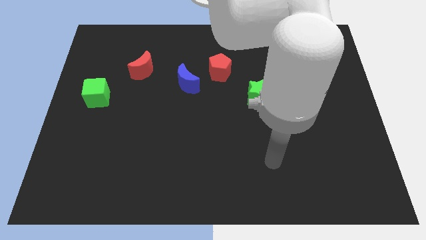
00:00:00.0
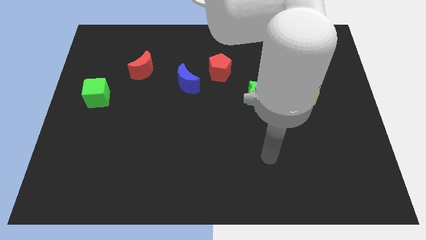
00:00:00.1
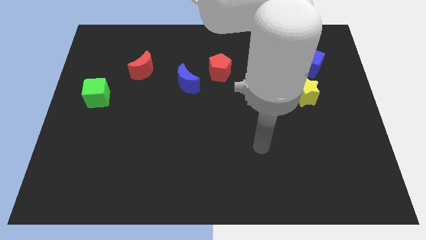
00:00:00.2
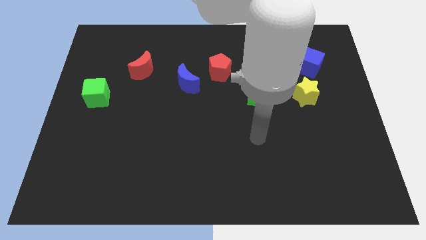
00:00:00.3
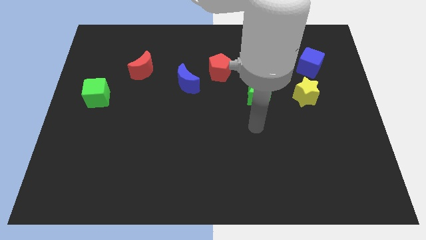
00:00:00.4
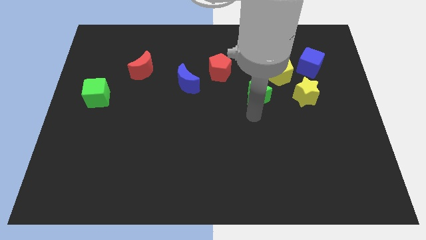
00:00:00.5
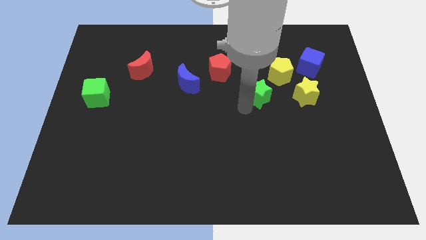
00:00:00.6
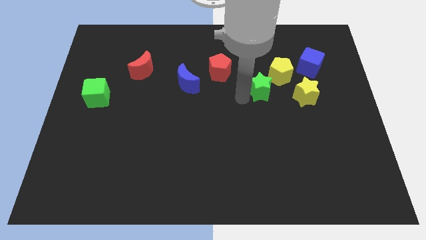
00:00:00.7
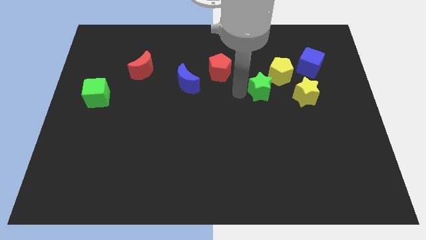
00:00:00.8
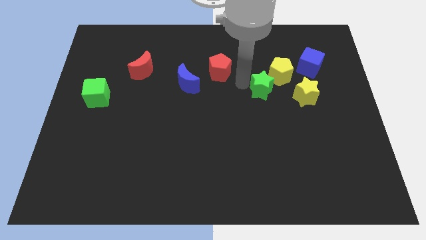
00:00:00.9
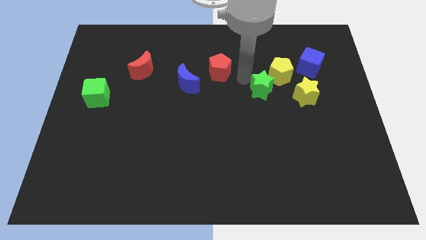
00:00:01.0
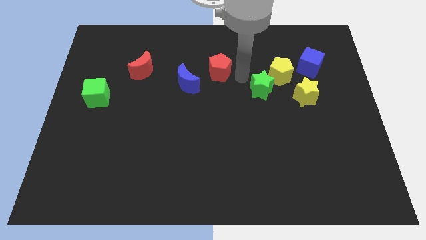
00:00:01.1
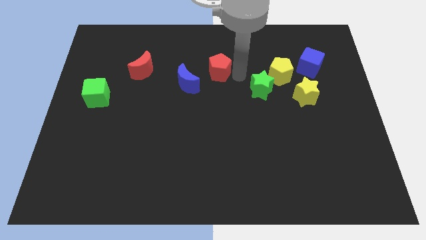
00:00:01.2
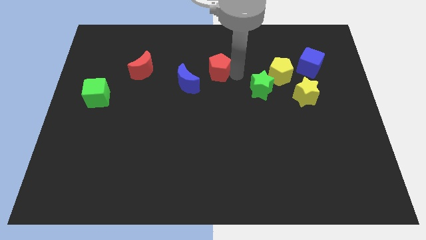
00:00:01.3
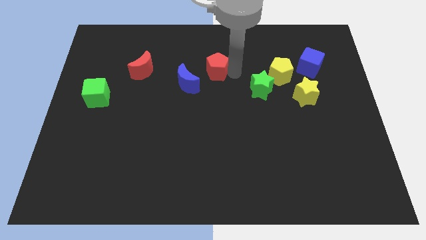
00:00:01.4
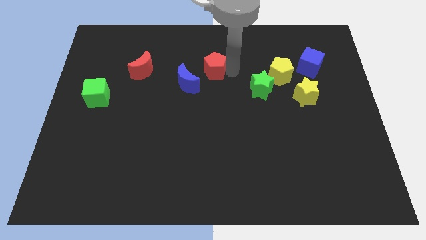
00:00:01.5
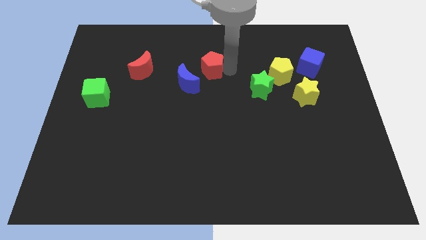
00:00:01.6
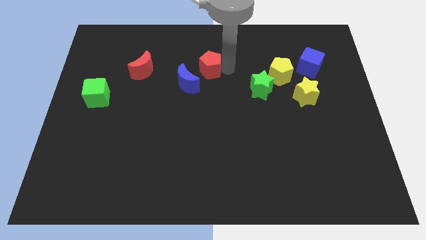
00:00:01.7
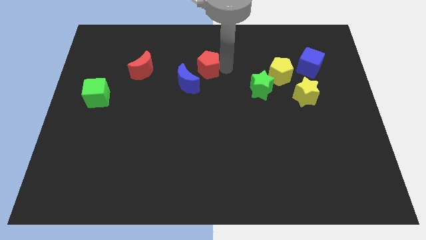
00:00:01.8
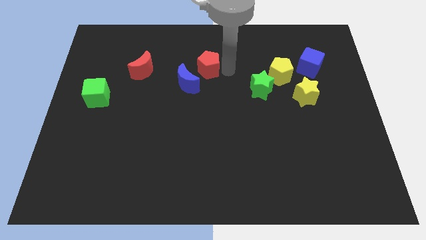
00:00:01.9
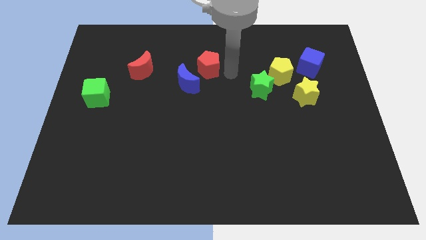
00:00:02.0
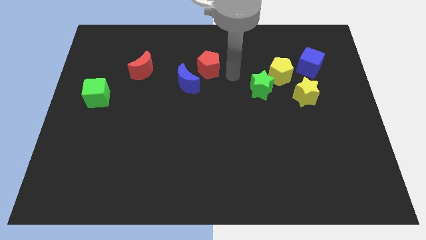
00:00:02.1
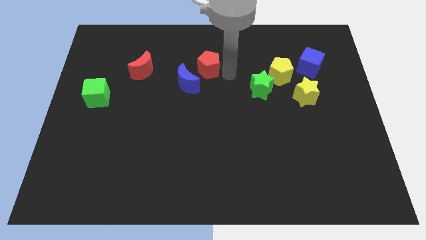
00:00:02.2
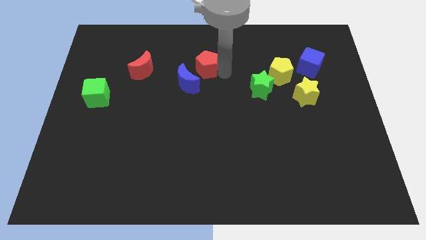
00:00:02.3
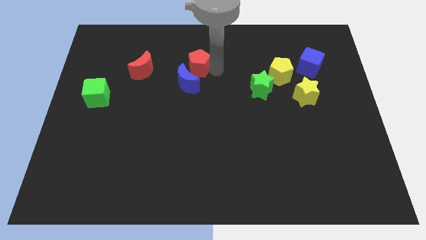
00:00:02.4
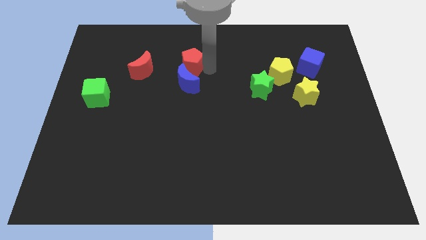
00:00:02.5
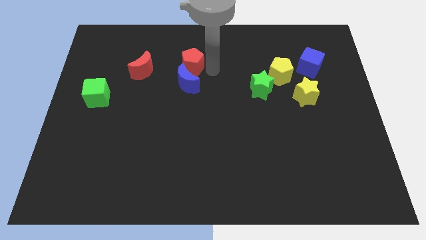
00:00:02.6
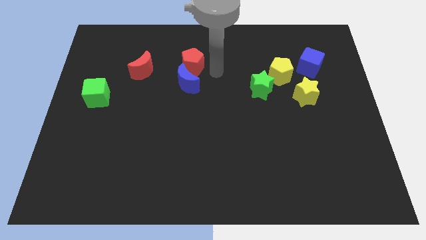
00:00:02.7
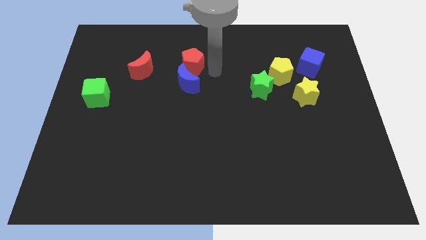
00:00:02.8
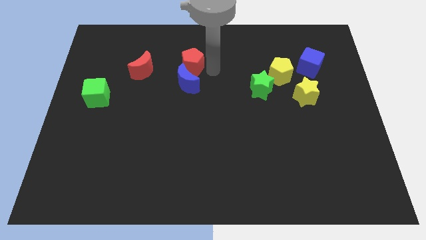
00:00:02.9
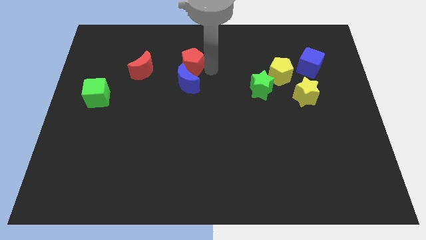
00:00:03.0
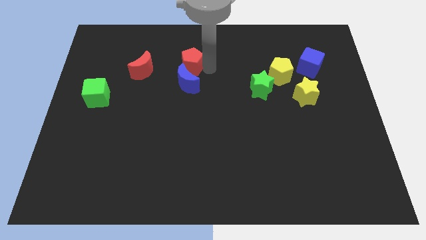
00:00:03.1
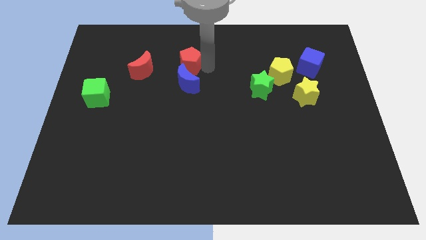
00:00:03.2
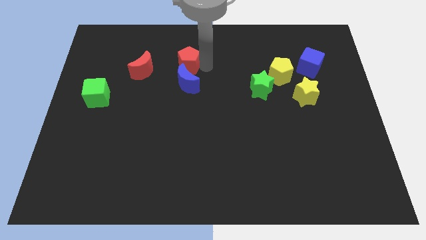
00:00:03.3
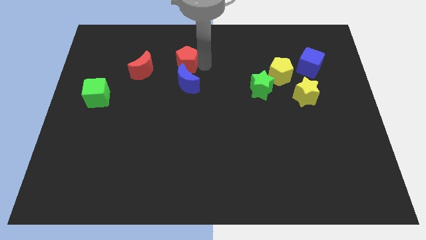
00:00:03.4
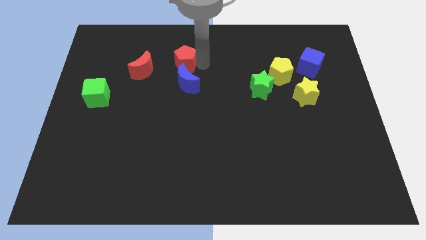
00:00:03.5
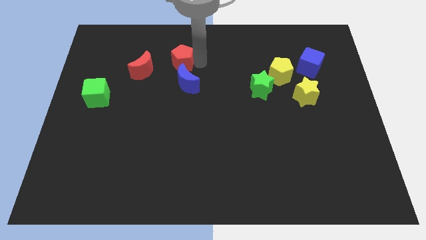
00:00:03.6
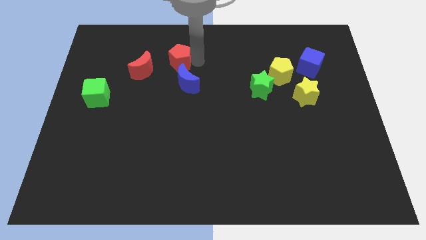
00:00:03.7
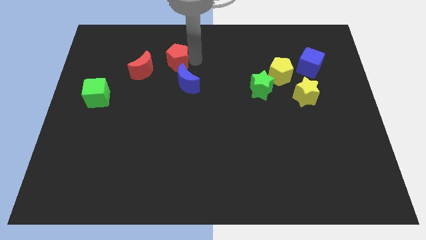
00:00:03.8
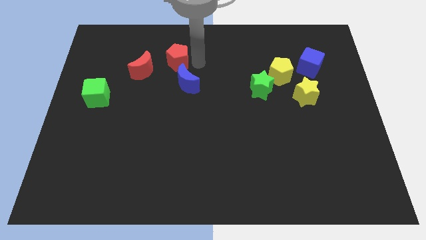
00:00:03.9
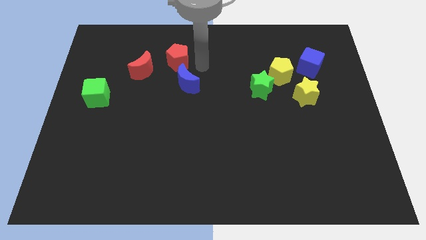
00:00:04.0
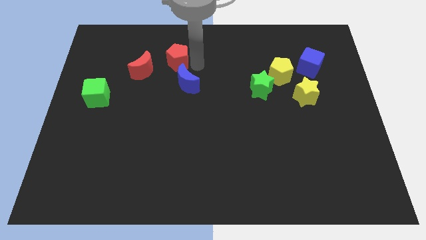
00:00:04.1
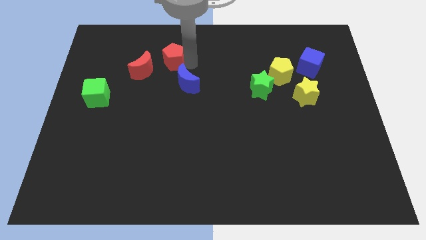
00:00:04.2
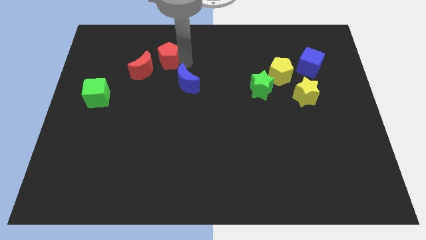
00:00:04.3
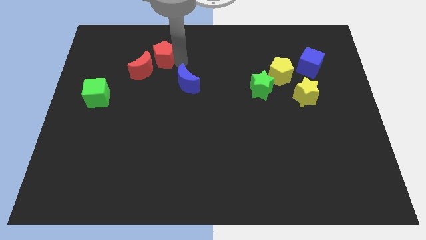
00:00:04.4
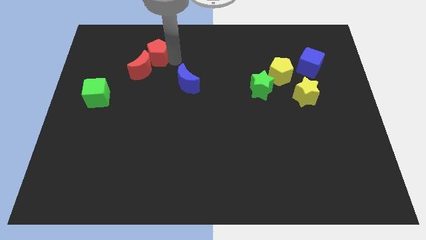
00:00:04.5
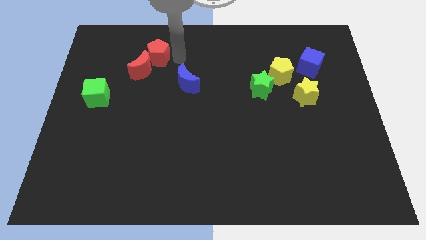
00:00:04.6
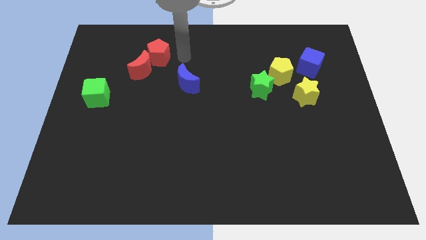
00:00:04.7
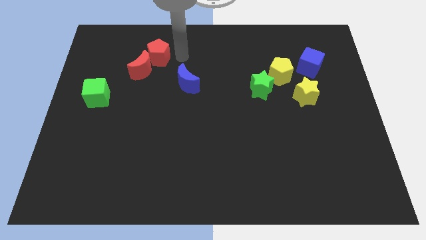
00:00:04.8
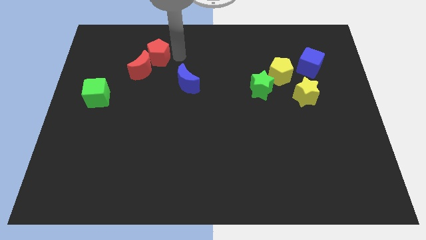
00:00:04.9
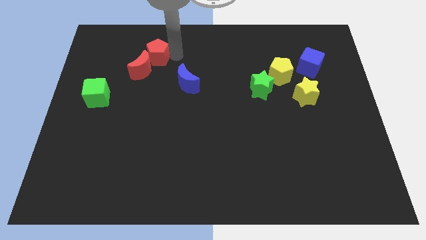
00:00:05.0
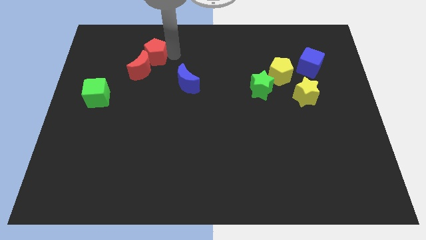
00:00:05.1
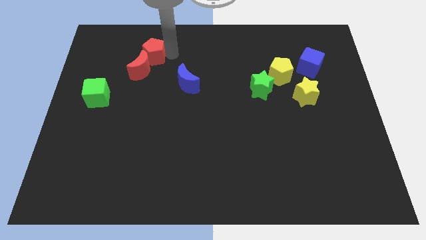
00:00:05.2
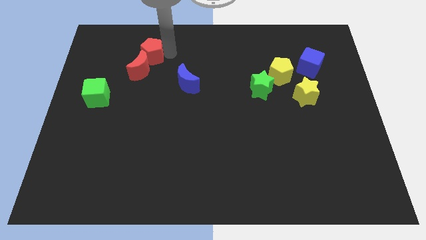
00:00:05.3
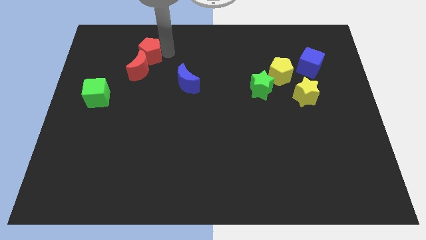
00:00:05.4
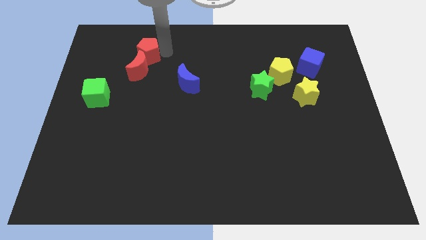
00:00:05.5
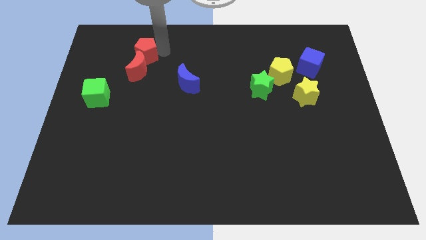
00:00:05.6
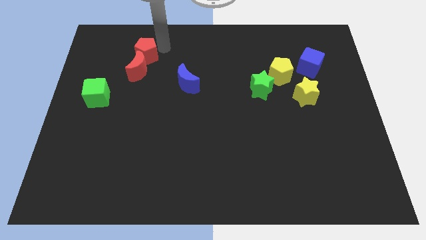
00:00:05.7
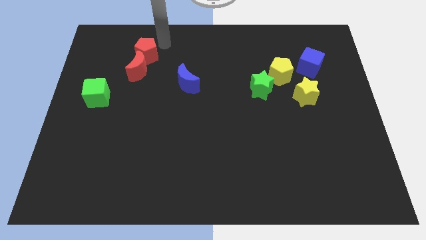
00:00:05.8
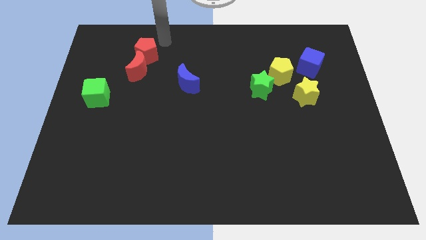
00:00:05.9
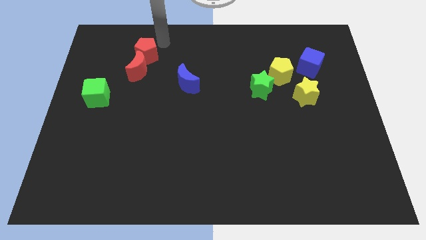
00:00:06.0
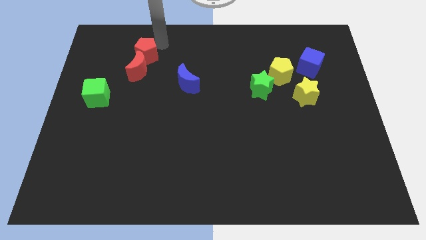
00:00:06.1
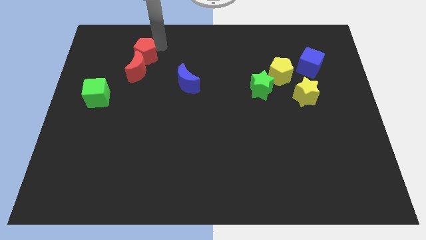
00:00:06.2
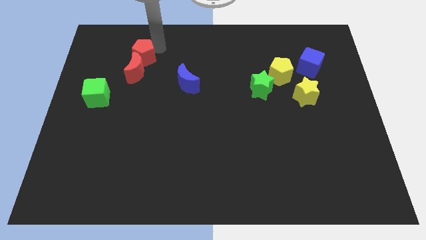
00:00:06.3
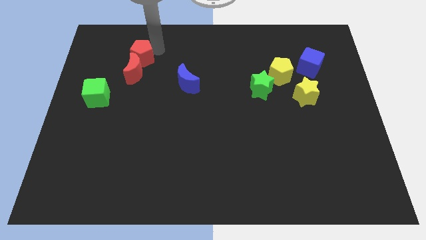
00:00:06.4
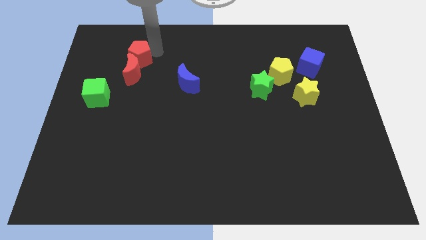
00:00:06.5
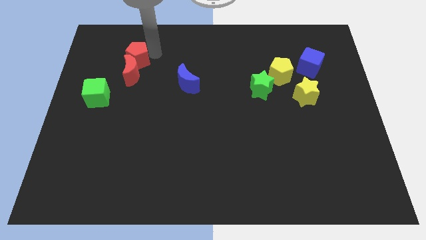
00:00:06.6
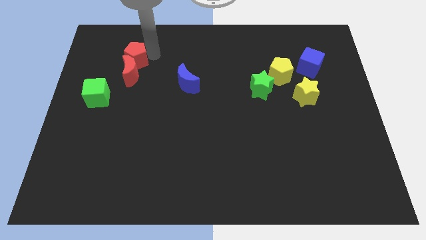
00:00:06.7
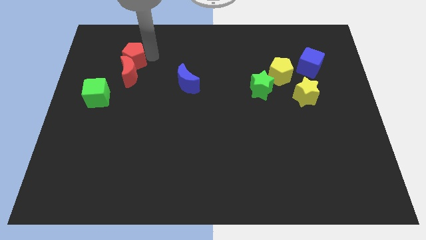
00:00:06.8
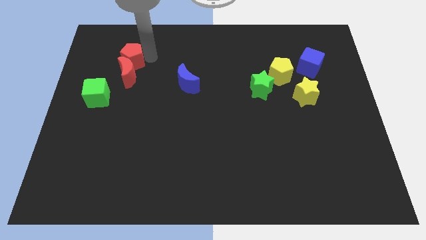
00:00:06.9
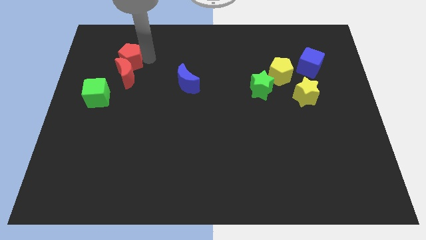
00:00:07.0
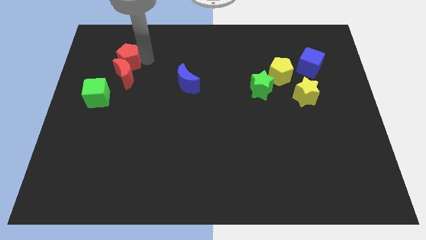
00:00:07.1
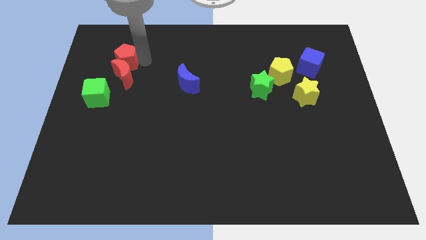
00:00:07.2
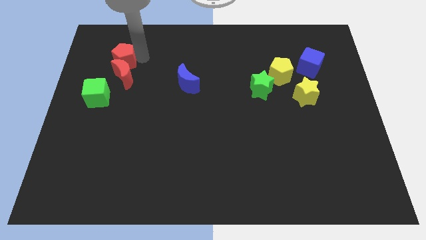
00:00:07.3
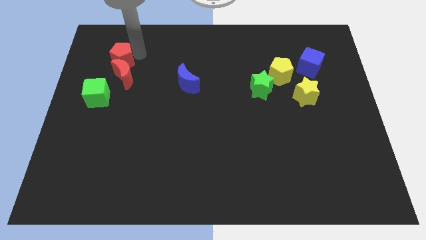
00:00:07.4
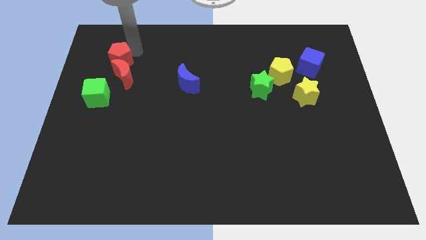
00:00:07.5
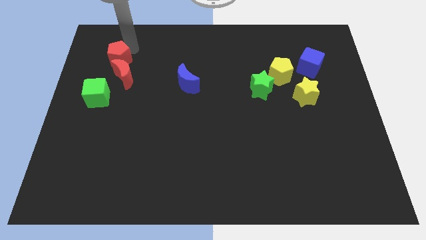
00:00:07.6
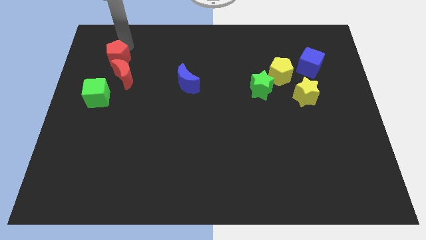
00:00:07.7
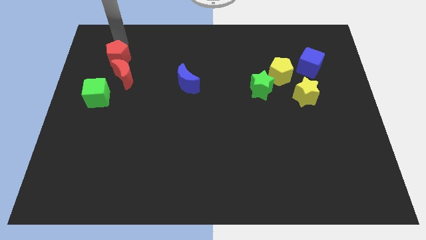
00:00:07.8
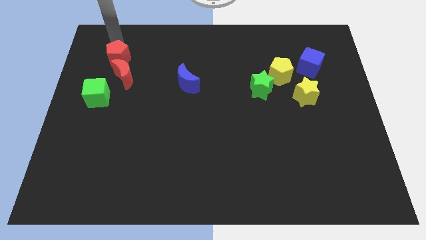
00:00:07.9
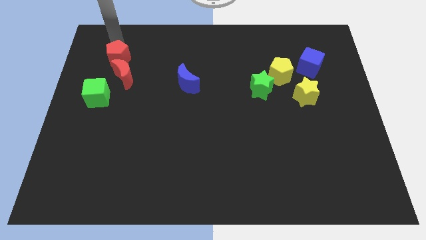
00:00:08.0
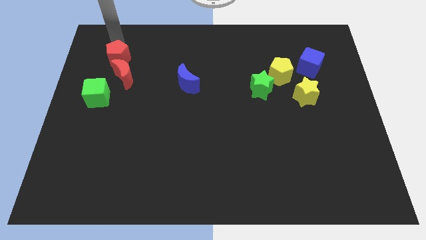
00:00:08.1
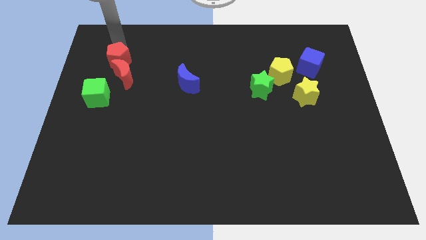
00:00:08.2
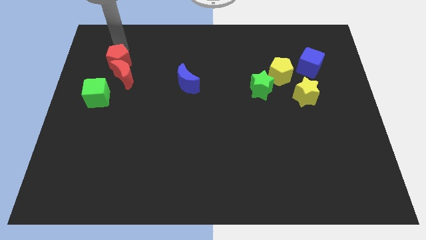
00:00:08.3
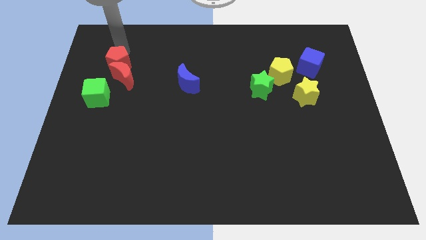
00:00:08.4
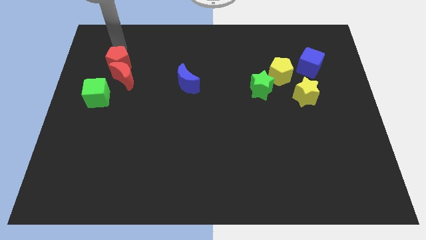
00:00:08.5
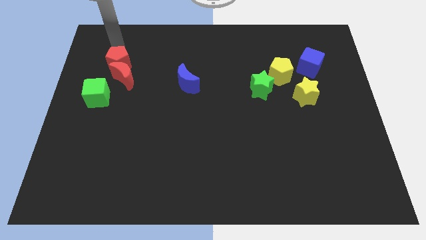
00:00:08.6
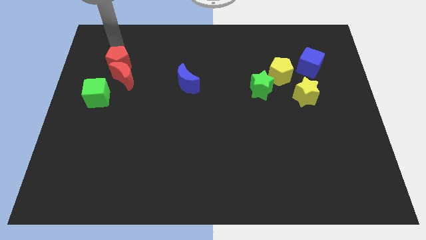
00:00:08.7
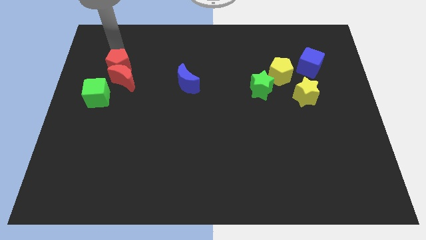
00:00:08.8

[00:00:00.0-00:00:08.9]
move the red pentagon diagonally up and to the right of the green cube
